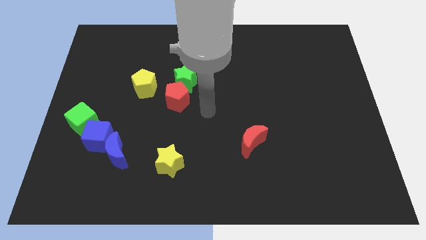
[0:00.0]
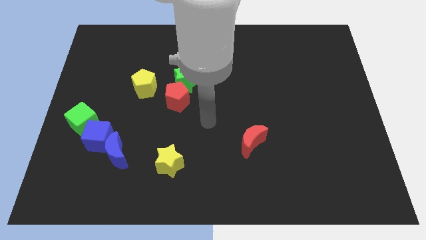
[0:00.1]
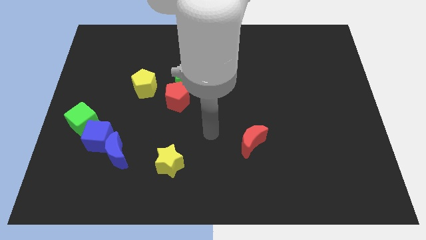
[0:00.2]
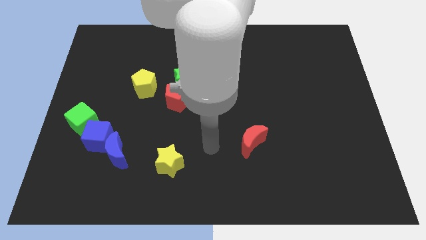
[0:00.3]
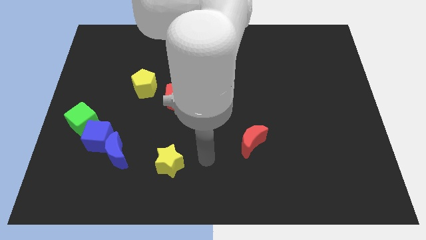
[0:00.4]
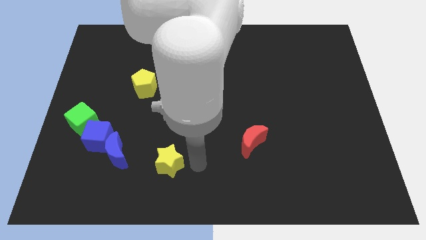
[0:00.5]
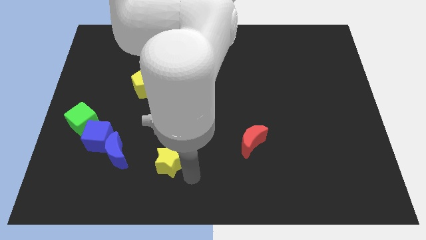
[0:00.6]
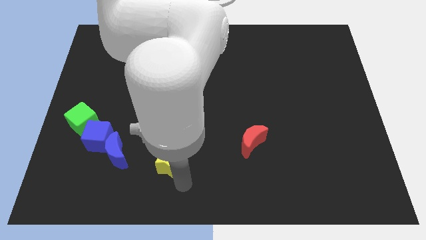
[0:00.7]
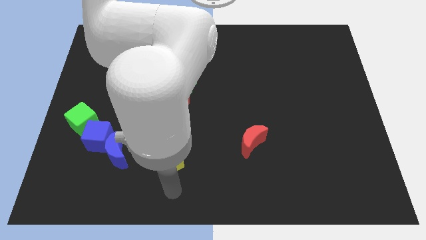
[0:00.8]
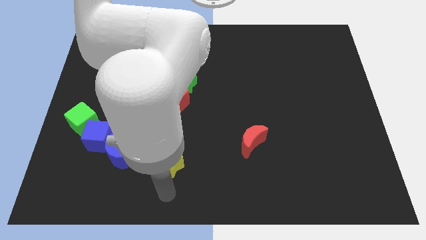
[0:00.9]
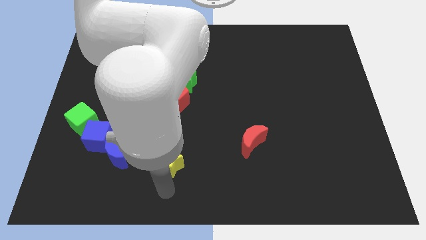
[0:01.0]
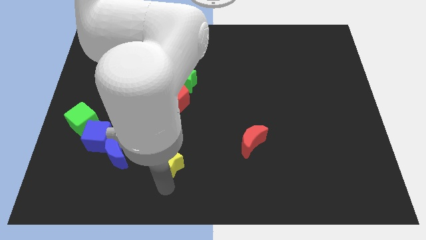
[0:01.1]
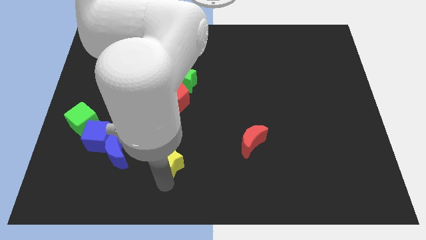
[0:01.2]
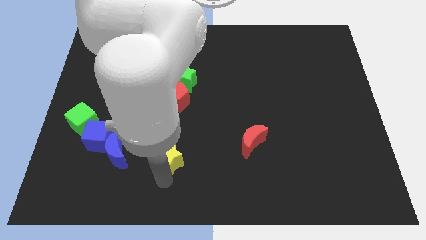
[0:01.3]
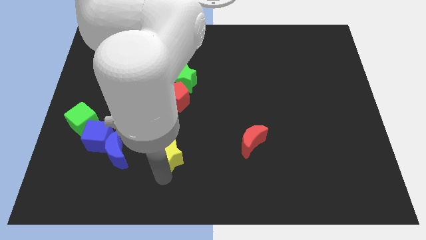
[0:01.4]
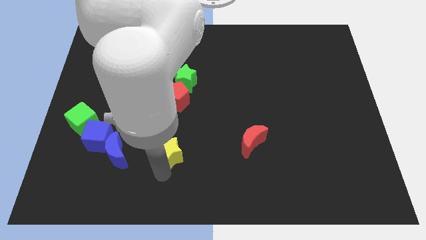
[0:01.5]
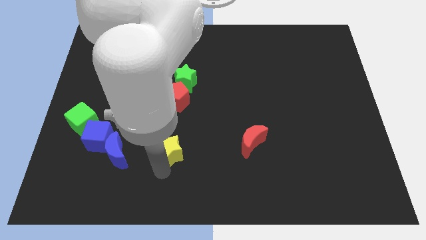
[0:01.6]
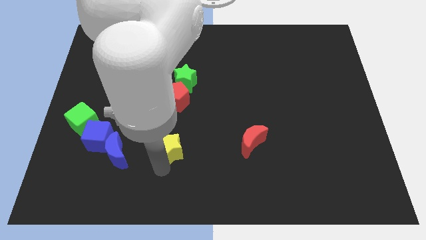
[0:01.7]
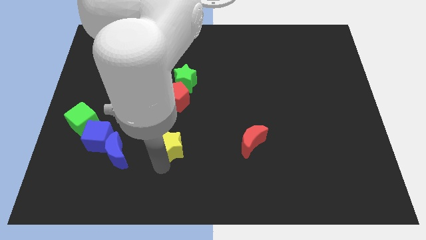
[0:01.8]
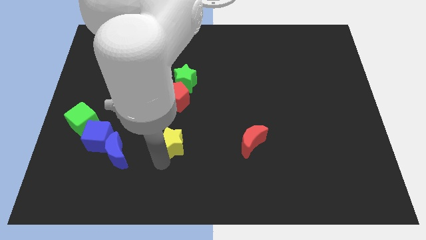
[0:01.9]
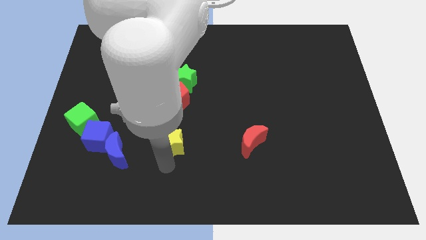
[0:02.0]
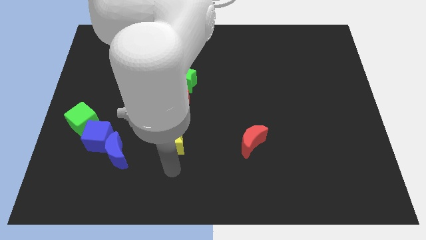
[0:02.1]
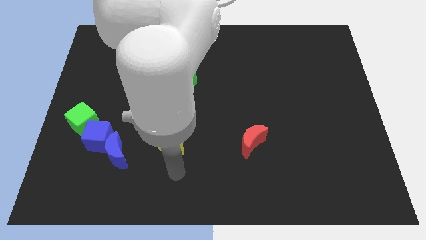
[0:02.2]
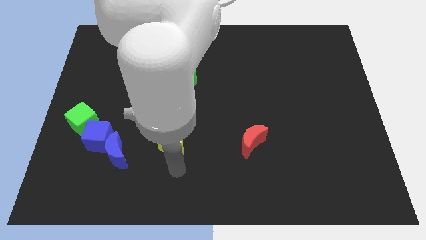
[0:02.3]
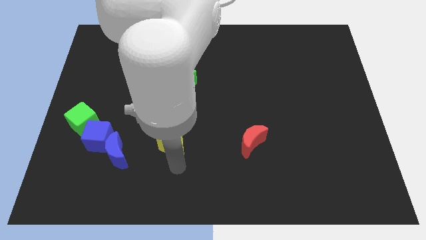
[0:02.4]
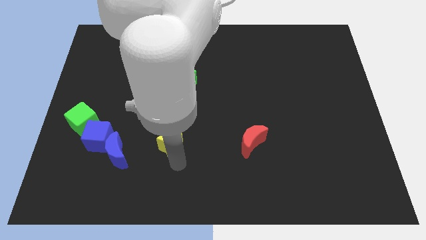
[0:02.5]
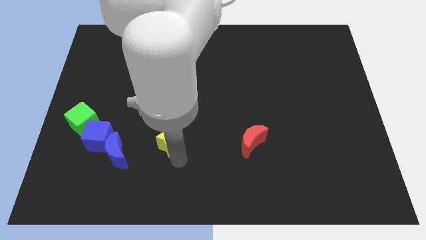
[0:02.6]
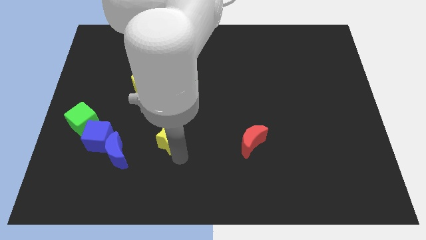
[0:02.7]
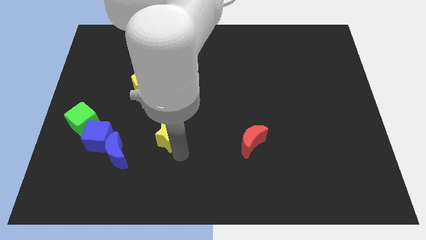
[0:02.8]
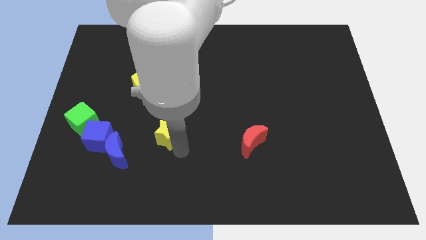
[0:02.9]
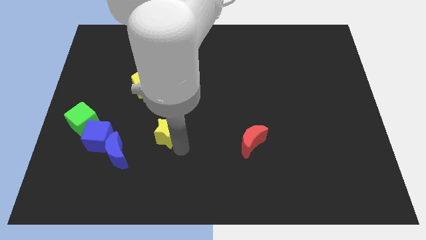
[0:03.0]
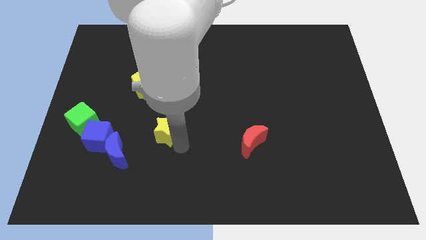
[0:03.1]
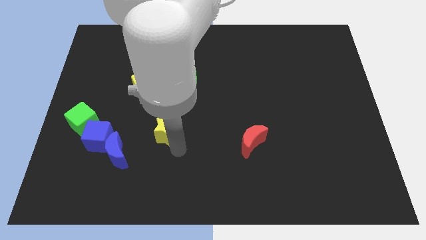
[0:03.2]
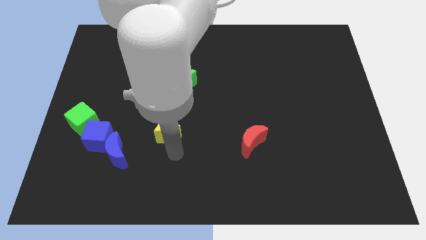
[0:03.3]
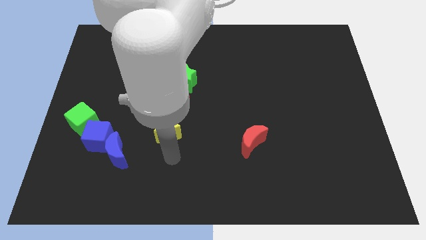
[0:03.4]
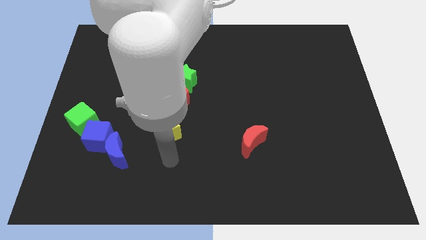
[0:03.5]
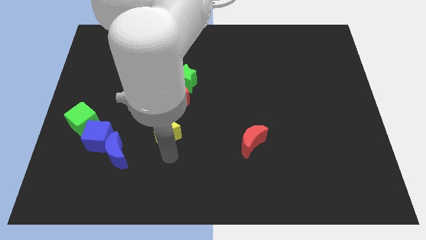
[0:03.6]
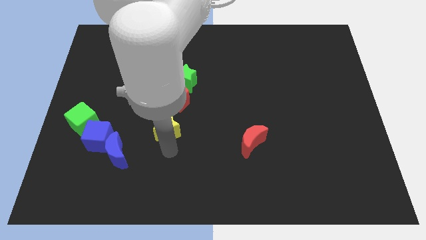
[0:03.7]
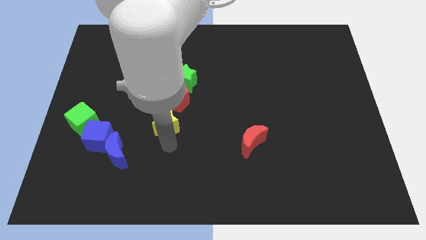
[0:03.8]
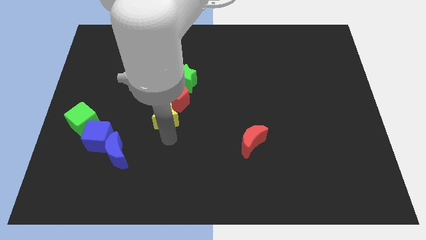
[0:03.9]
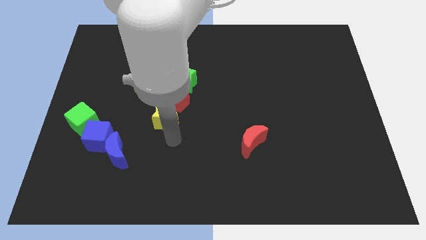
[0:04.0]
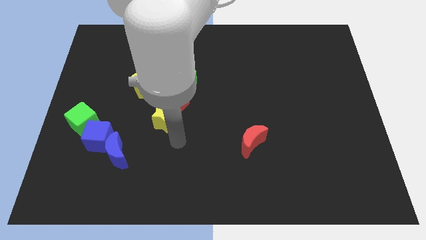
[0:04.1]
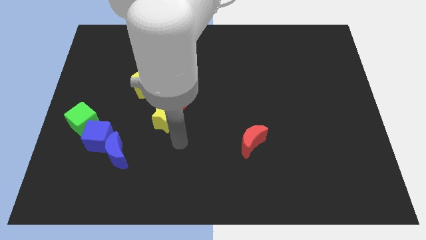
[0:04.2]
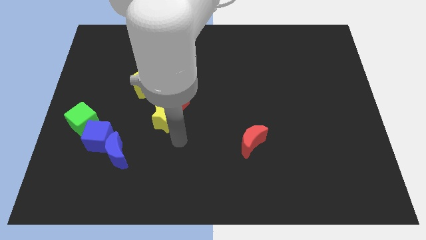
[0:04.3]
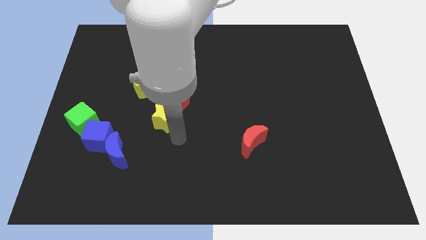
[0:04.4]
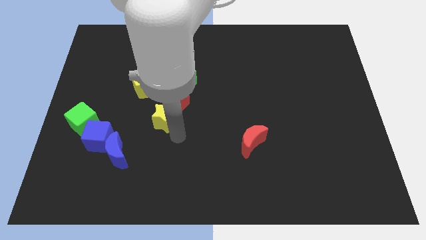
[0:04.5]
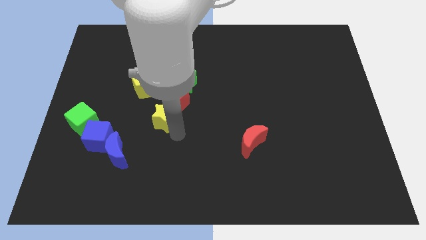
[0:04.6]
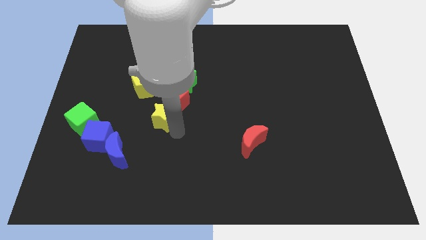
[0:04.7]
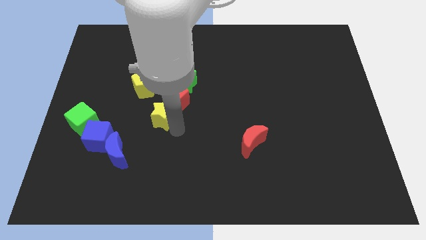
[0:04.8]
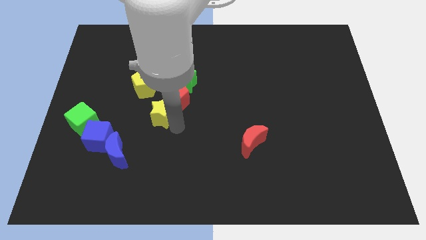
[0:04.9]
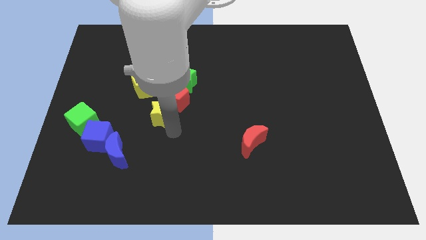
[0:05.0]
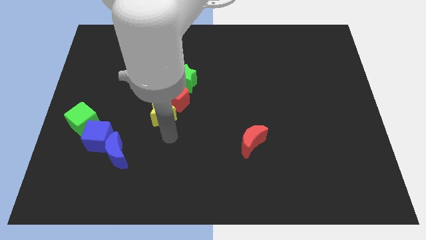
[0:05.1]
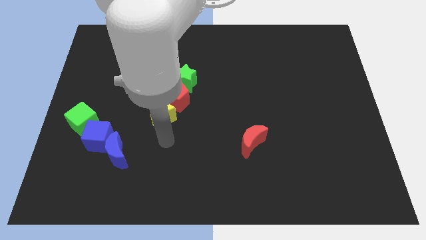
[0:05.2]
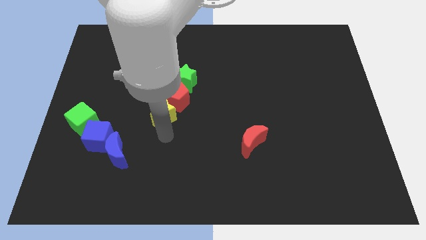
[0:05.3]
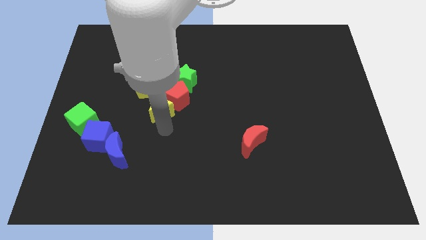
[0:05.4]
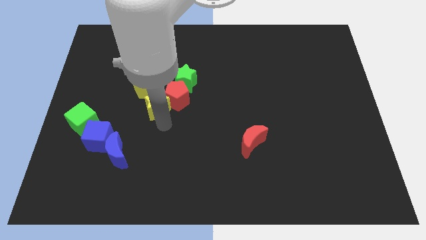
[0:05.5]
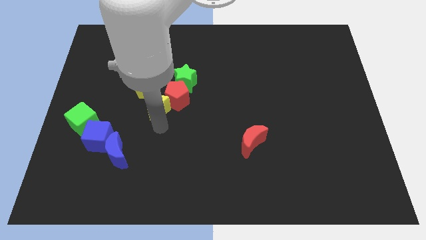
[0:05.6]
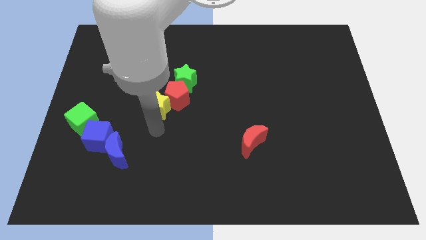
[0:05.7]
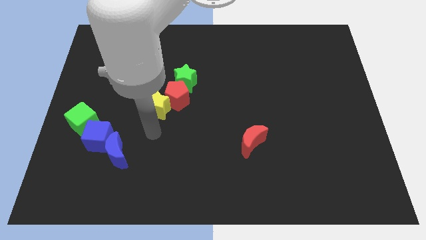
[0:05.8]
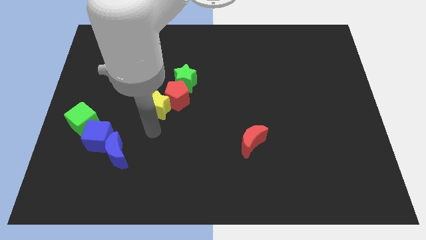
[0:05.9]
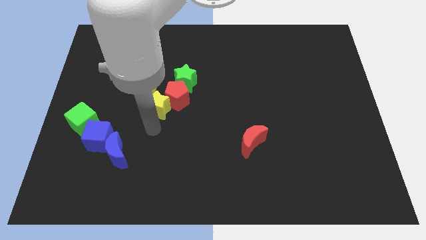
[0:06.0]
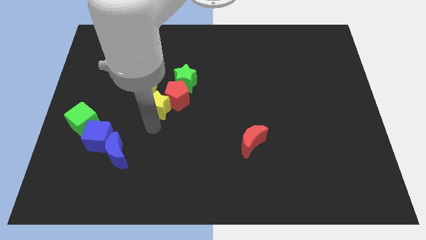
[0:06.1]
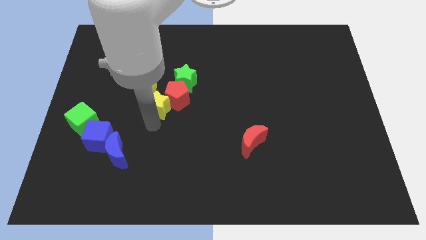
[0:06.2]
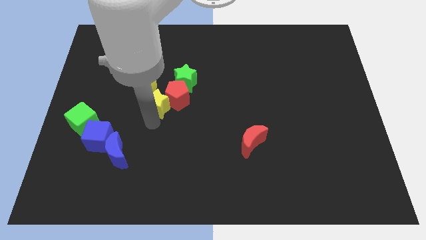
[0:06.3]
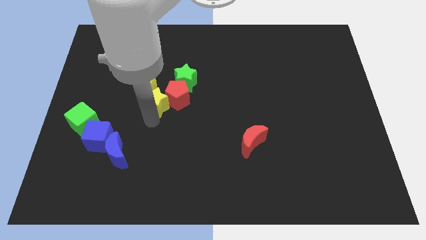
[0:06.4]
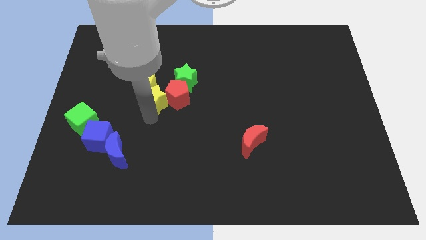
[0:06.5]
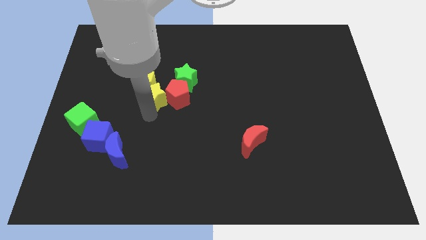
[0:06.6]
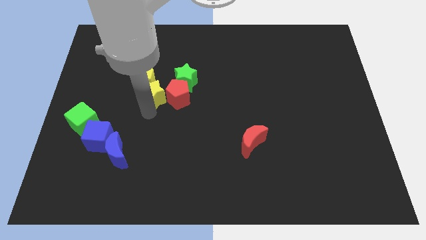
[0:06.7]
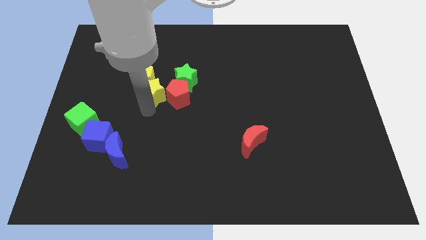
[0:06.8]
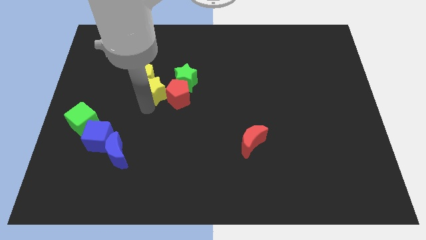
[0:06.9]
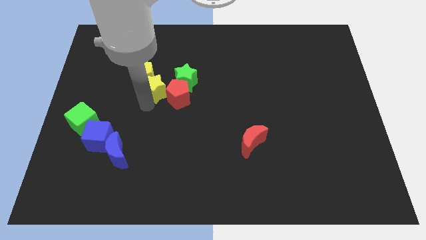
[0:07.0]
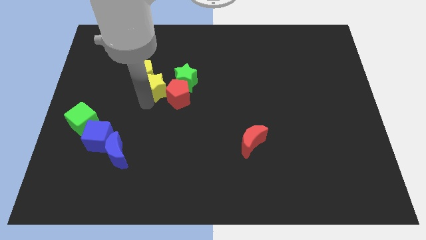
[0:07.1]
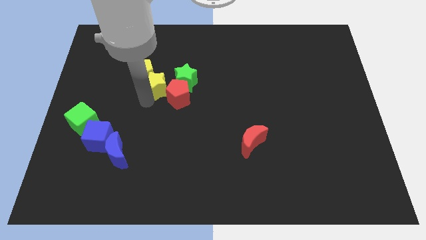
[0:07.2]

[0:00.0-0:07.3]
push the yellow star up

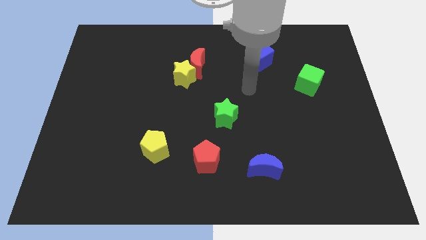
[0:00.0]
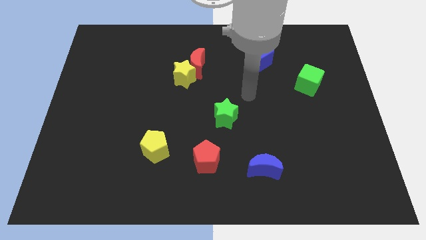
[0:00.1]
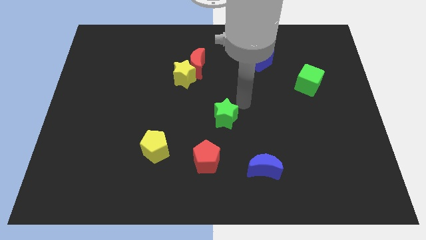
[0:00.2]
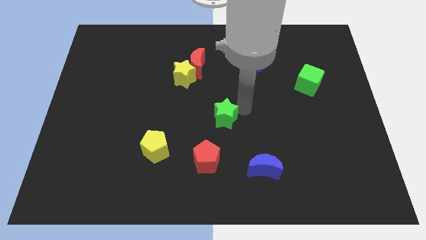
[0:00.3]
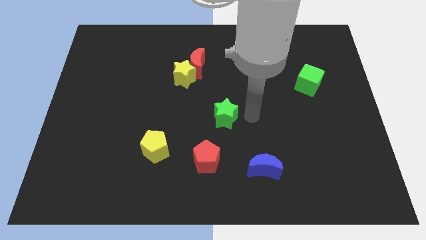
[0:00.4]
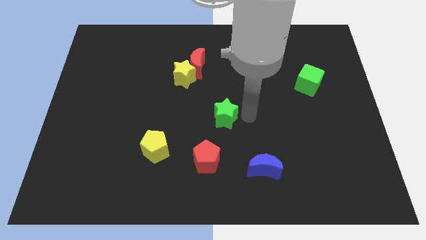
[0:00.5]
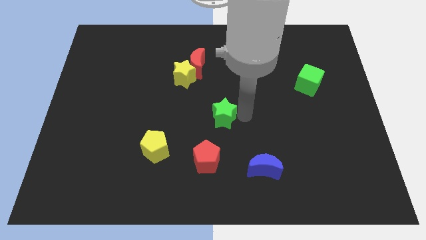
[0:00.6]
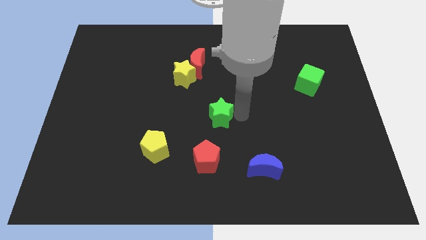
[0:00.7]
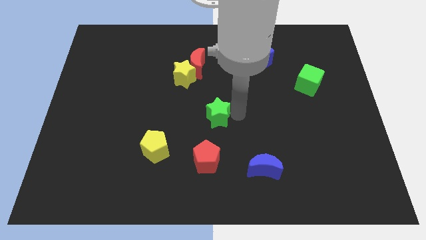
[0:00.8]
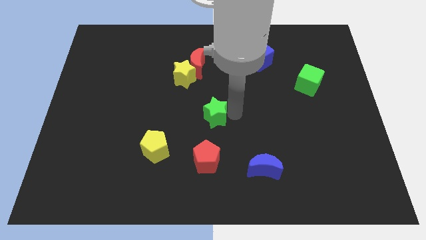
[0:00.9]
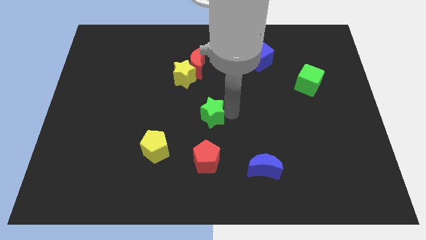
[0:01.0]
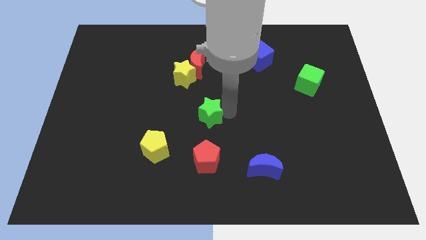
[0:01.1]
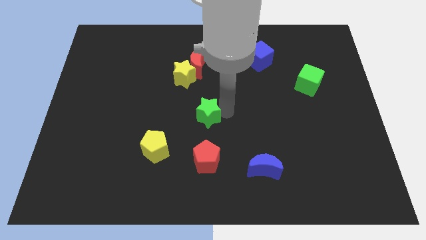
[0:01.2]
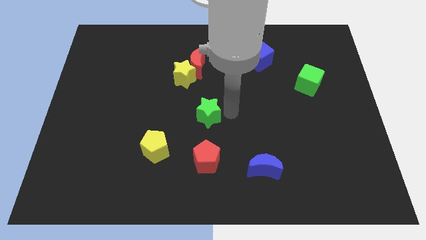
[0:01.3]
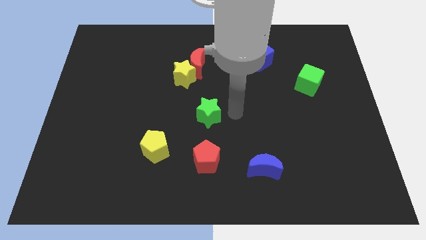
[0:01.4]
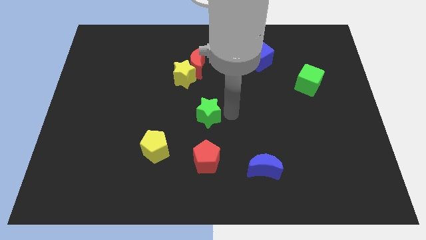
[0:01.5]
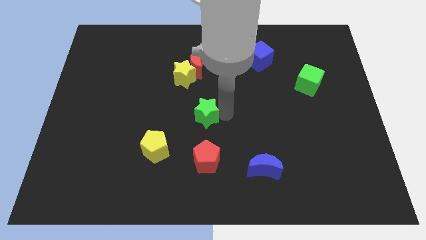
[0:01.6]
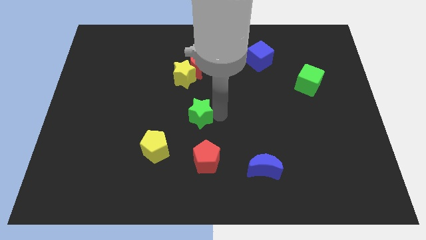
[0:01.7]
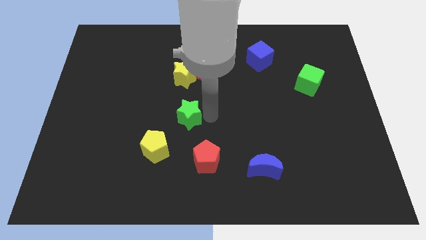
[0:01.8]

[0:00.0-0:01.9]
slightly slide the green star to the left
